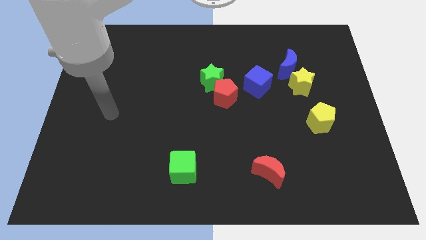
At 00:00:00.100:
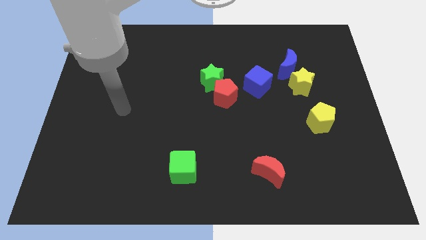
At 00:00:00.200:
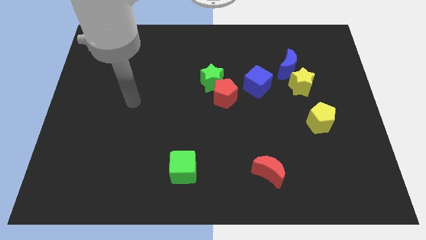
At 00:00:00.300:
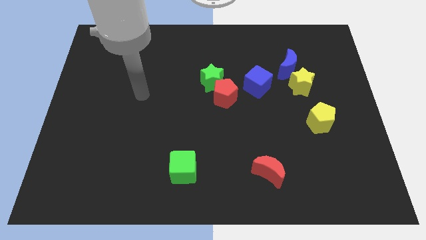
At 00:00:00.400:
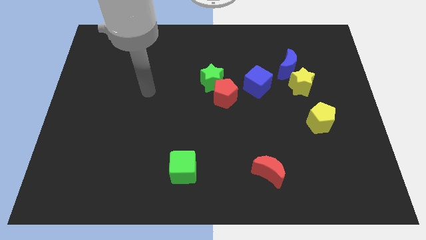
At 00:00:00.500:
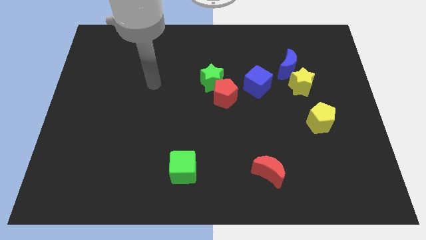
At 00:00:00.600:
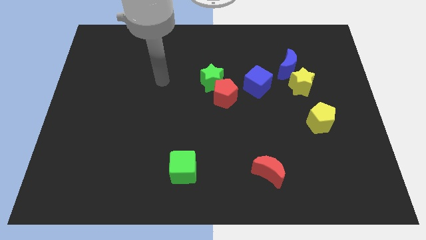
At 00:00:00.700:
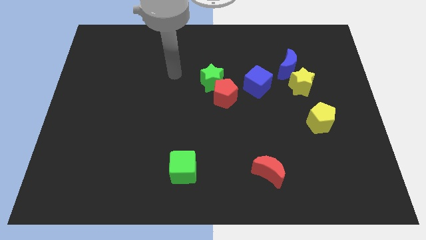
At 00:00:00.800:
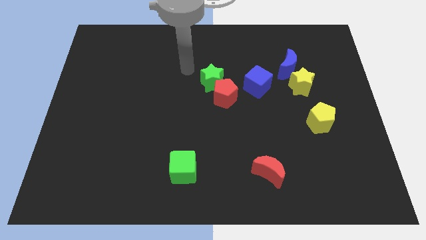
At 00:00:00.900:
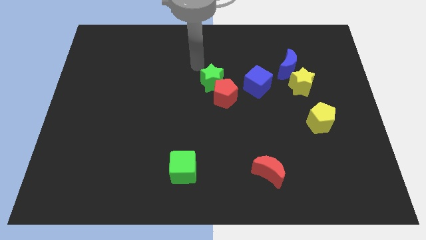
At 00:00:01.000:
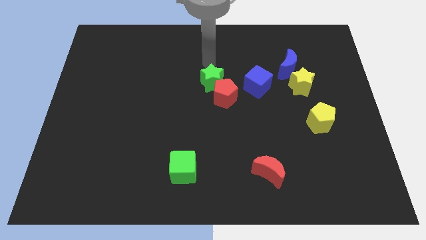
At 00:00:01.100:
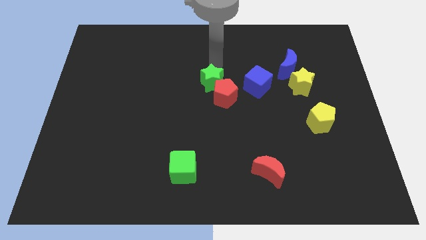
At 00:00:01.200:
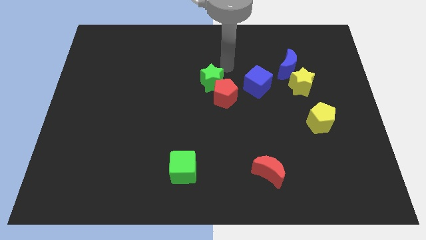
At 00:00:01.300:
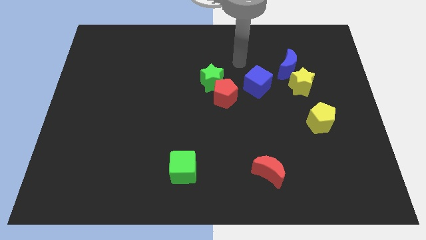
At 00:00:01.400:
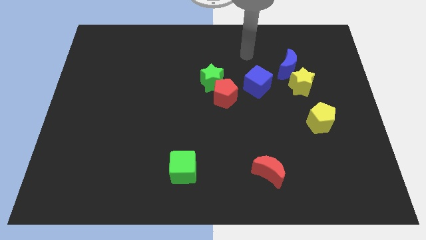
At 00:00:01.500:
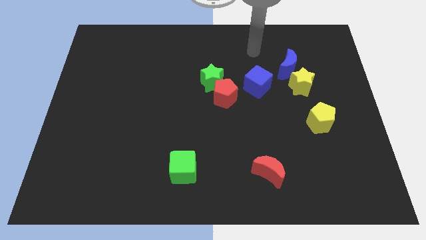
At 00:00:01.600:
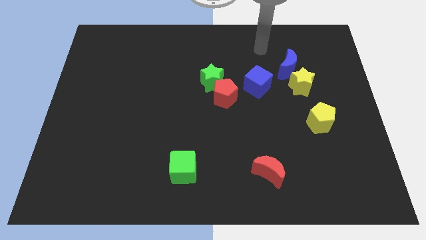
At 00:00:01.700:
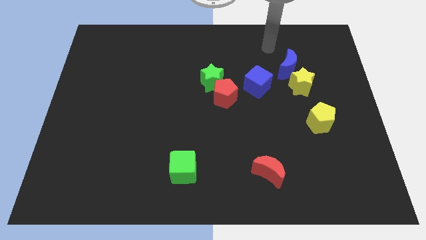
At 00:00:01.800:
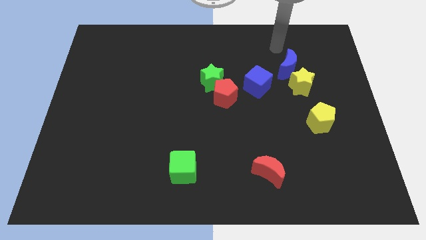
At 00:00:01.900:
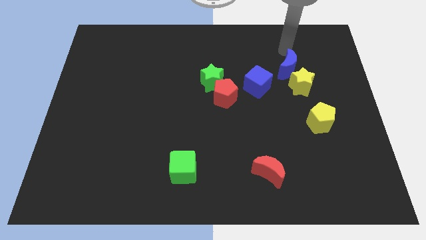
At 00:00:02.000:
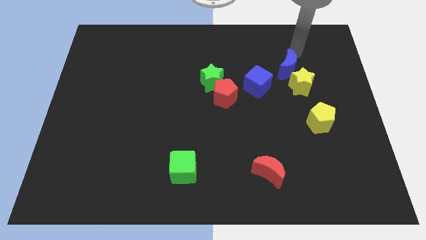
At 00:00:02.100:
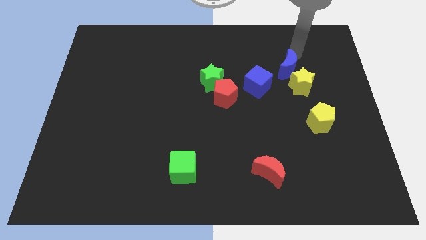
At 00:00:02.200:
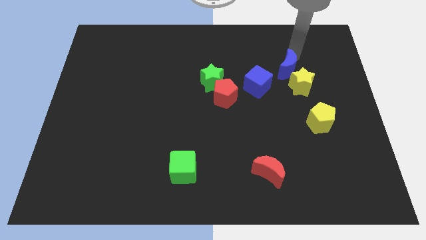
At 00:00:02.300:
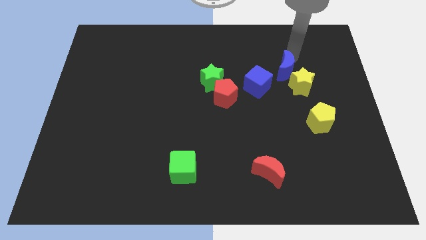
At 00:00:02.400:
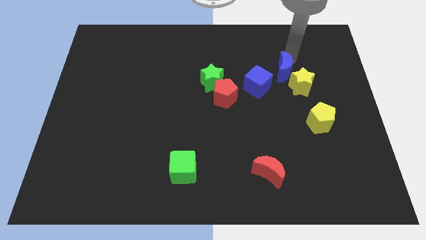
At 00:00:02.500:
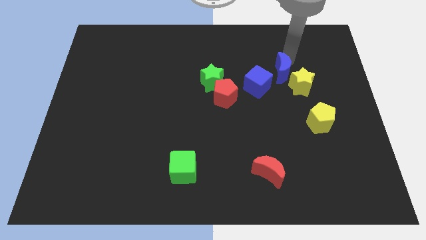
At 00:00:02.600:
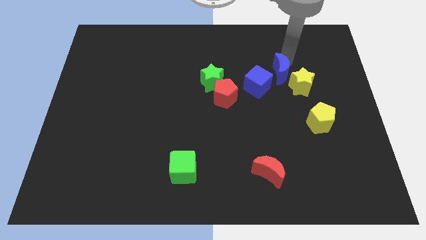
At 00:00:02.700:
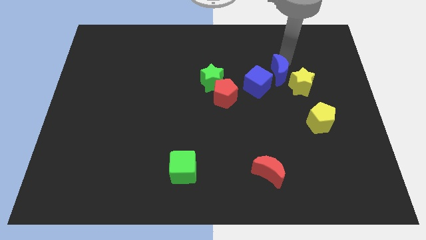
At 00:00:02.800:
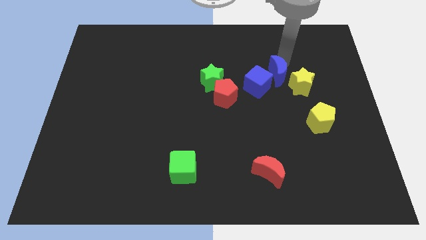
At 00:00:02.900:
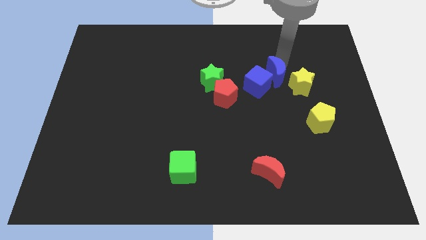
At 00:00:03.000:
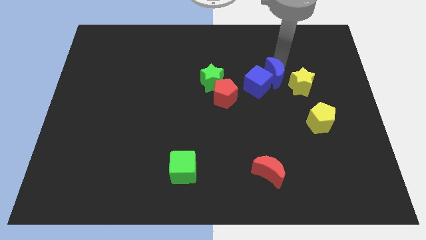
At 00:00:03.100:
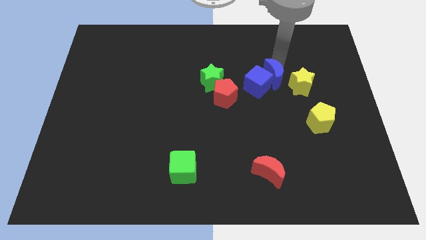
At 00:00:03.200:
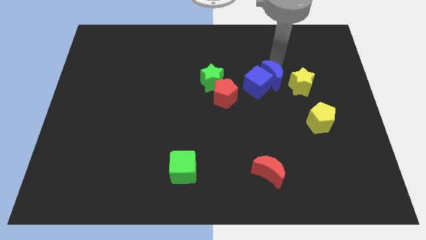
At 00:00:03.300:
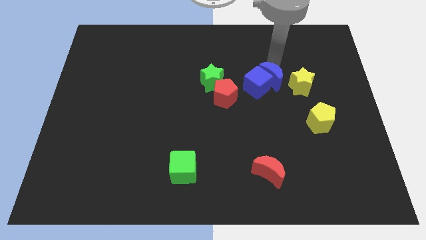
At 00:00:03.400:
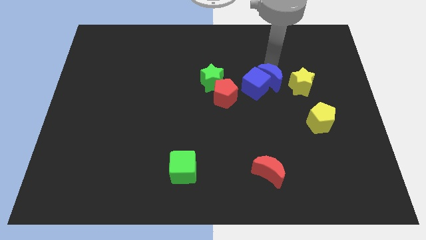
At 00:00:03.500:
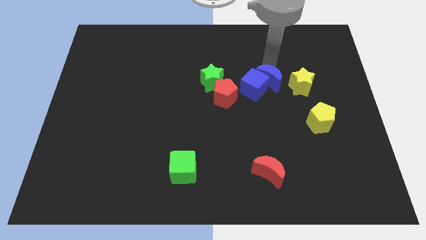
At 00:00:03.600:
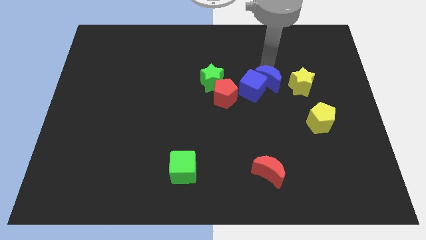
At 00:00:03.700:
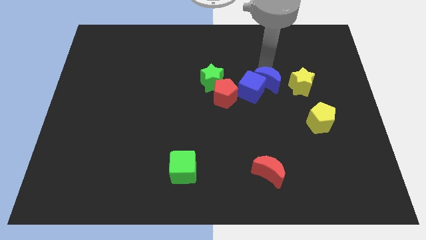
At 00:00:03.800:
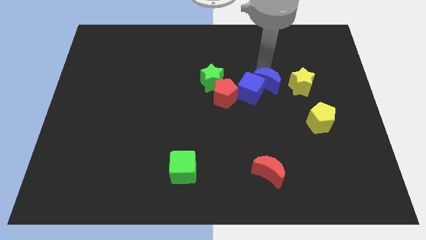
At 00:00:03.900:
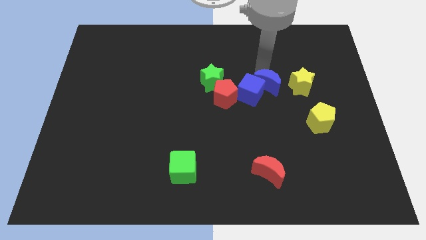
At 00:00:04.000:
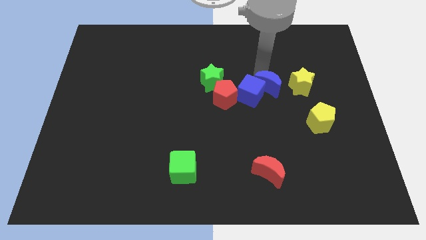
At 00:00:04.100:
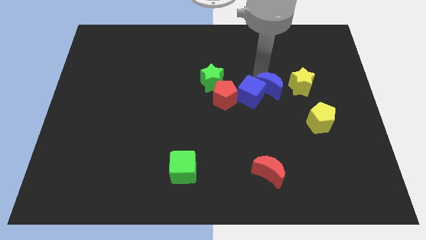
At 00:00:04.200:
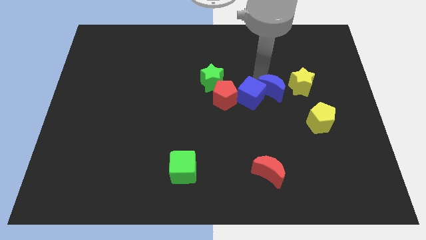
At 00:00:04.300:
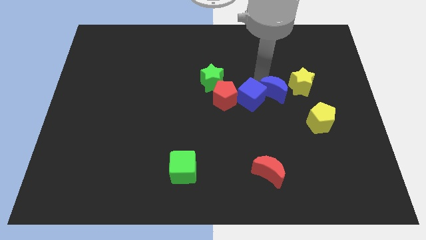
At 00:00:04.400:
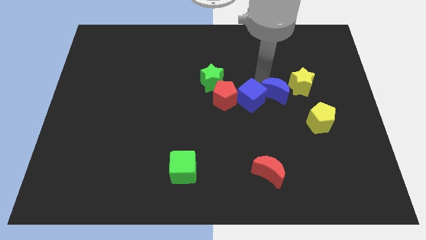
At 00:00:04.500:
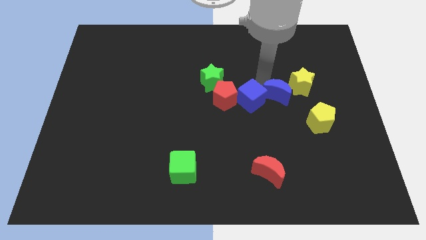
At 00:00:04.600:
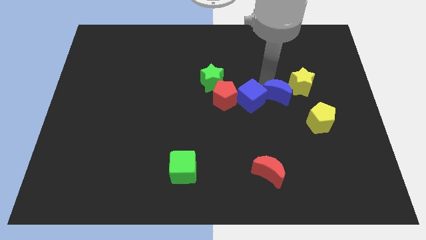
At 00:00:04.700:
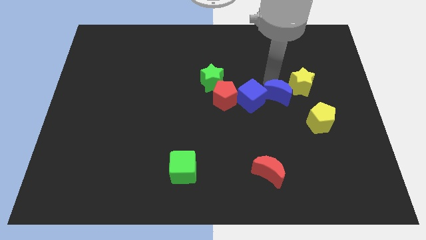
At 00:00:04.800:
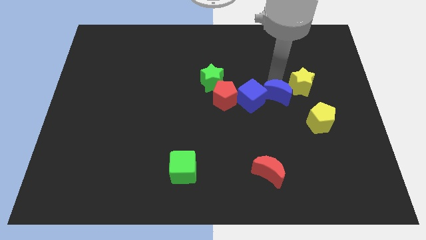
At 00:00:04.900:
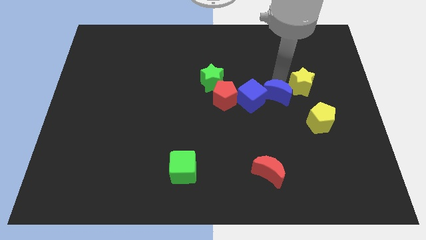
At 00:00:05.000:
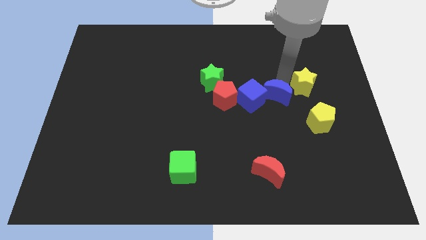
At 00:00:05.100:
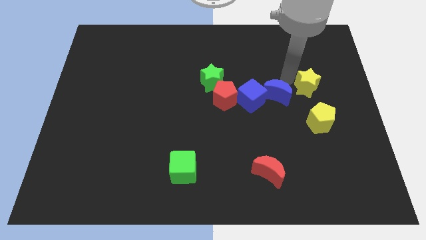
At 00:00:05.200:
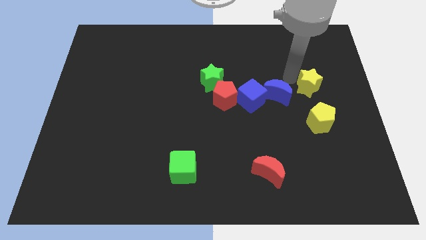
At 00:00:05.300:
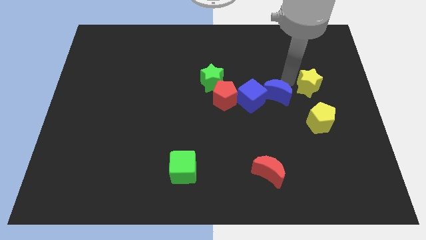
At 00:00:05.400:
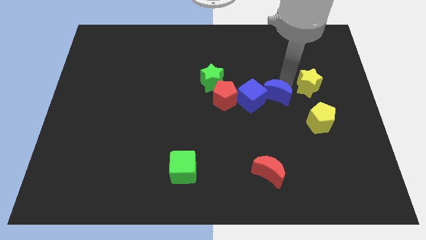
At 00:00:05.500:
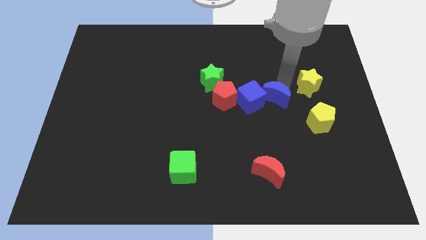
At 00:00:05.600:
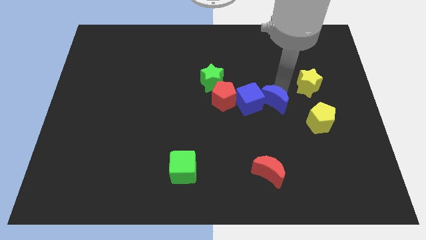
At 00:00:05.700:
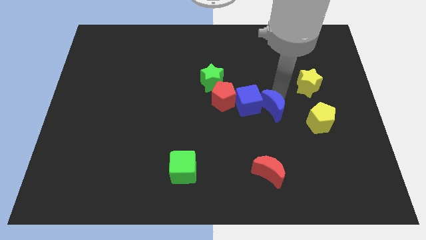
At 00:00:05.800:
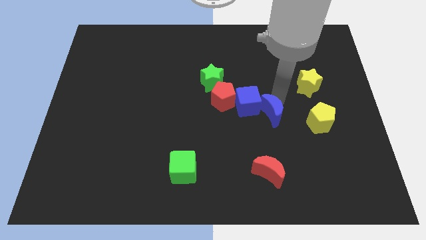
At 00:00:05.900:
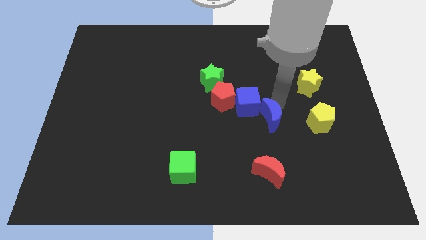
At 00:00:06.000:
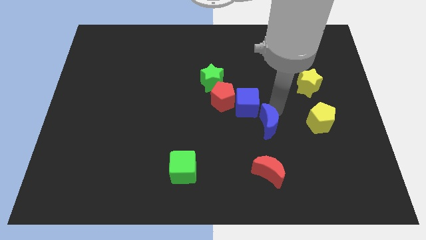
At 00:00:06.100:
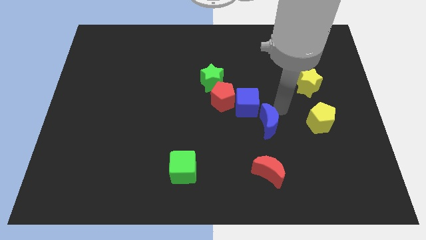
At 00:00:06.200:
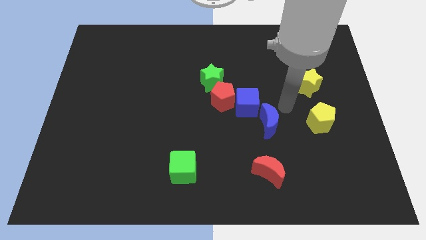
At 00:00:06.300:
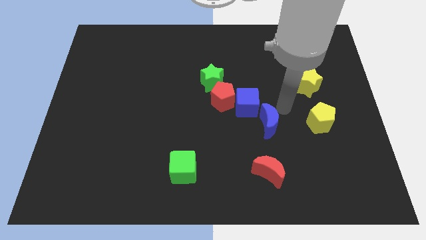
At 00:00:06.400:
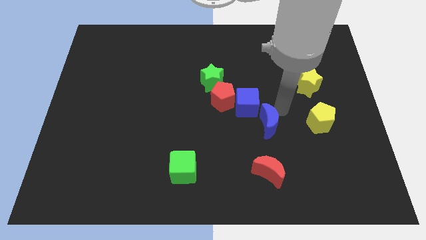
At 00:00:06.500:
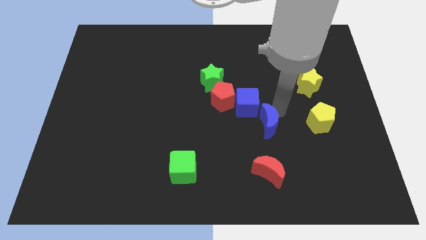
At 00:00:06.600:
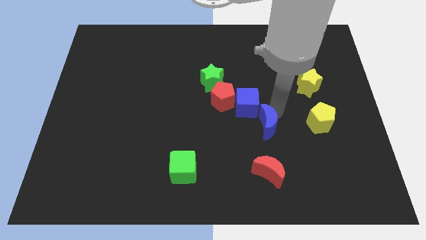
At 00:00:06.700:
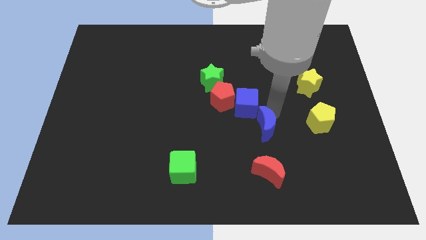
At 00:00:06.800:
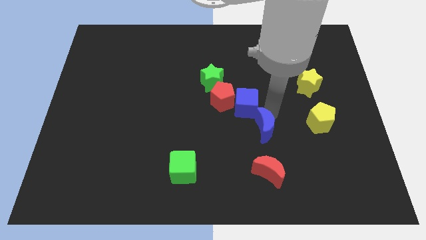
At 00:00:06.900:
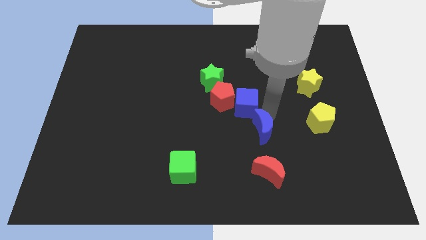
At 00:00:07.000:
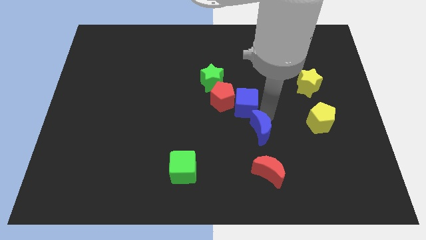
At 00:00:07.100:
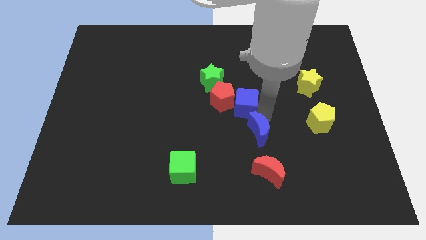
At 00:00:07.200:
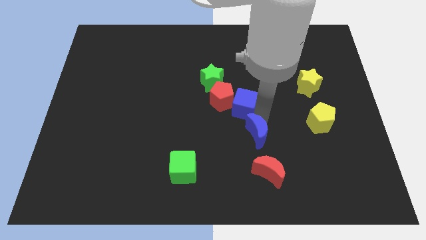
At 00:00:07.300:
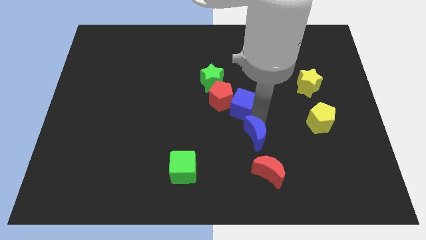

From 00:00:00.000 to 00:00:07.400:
move the blue moon to the top left of the red moon

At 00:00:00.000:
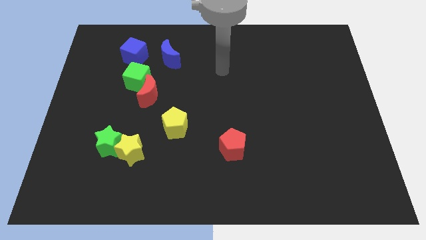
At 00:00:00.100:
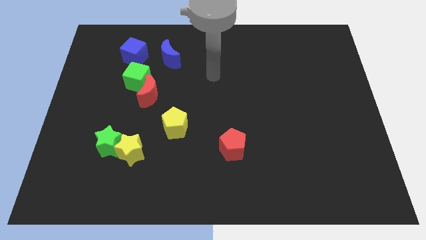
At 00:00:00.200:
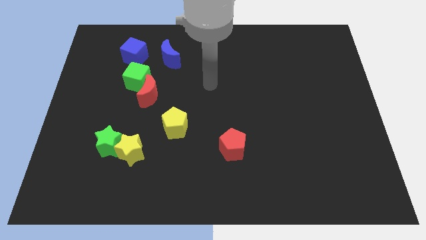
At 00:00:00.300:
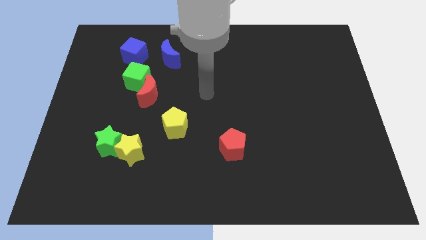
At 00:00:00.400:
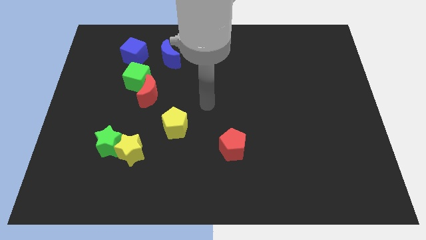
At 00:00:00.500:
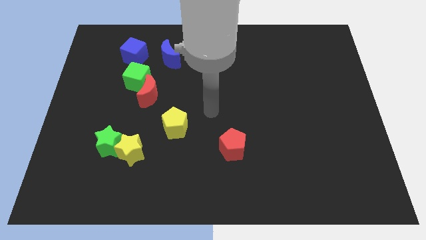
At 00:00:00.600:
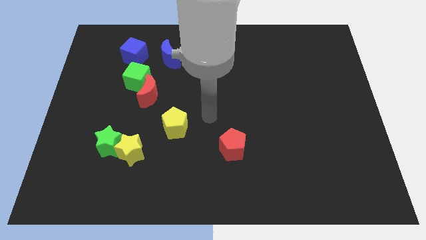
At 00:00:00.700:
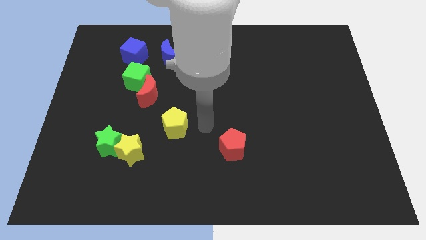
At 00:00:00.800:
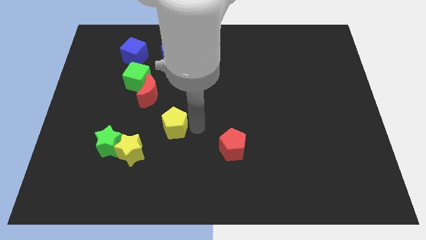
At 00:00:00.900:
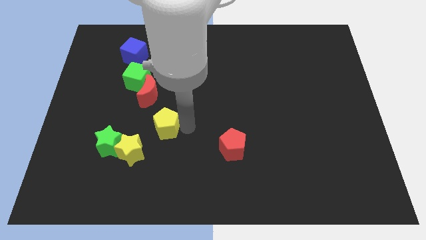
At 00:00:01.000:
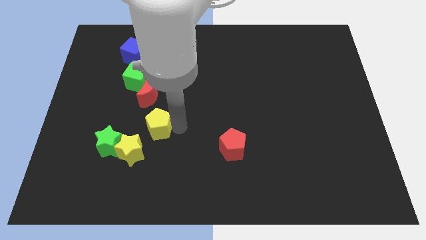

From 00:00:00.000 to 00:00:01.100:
put the yellow pentagon to the top right side of the green star
